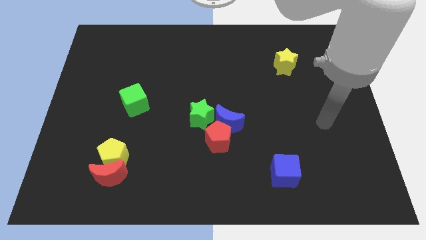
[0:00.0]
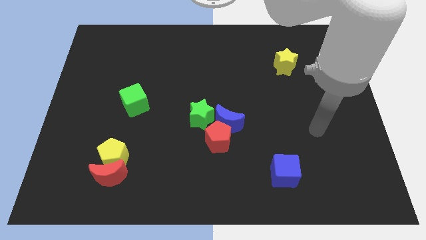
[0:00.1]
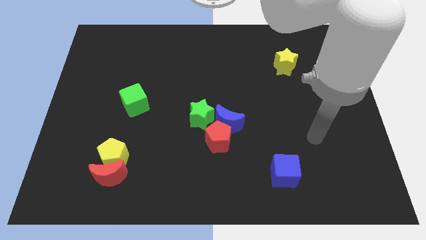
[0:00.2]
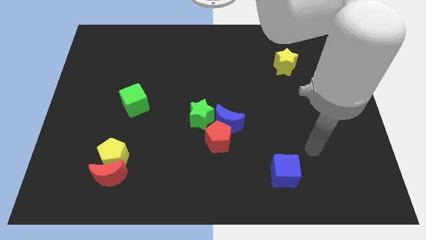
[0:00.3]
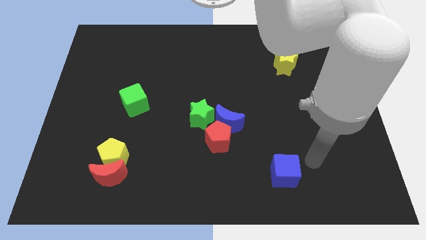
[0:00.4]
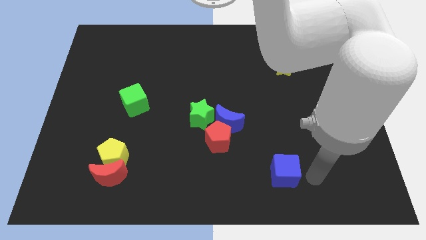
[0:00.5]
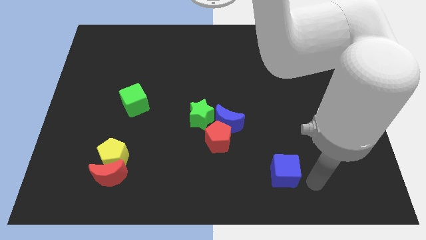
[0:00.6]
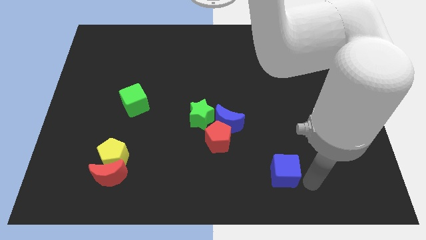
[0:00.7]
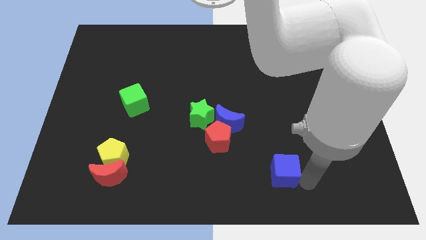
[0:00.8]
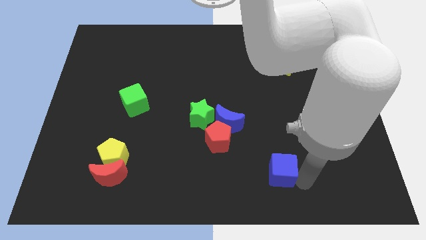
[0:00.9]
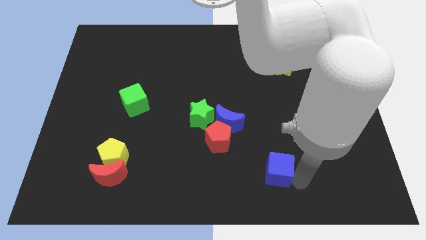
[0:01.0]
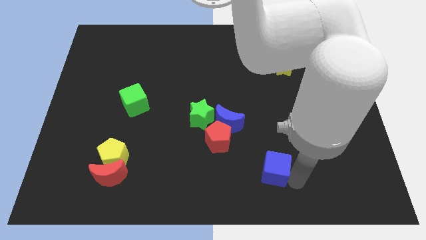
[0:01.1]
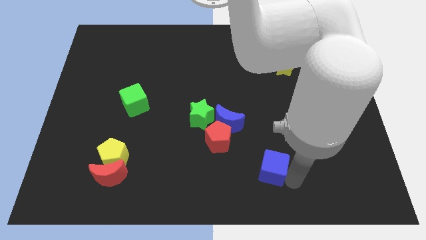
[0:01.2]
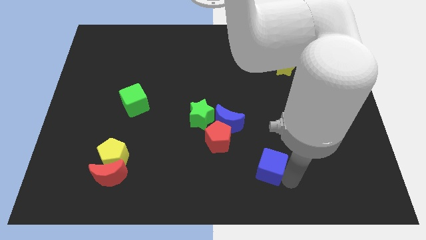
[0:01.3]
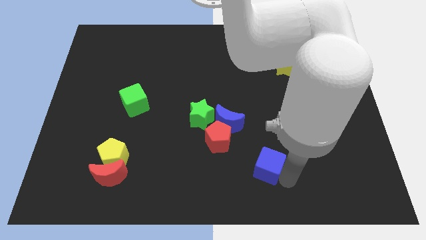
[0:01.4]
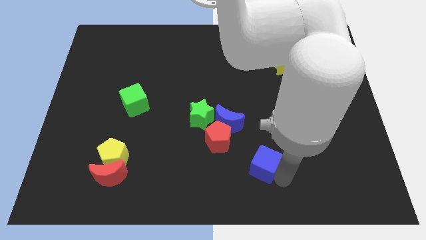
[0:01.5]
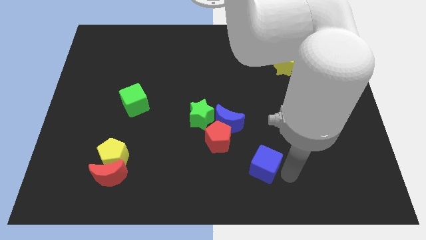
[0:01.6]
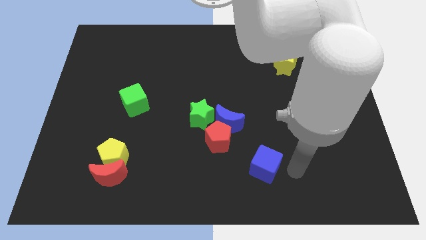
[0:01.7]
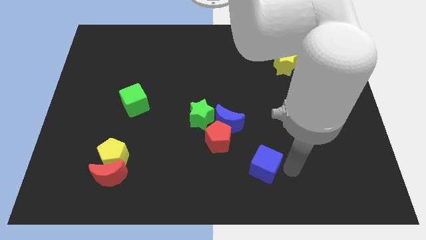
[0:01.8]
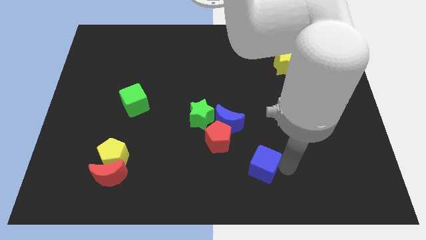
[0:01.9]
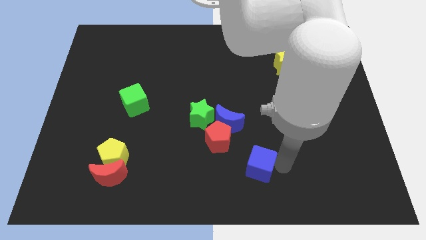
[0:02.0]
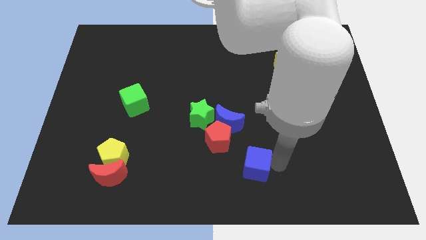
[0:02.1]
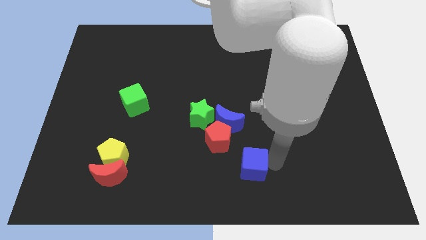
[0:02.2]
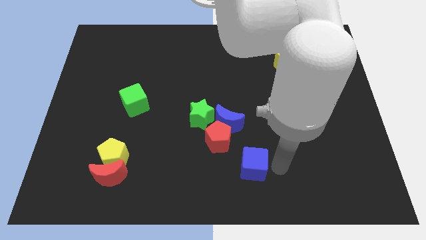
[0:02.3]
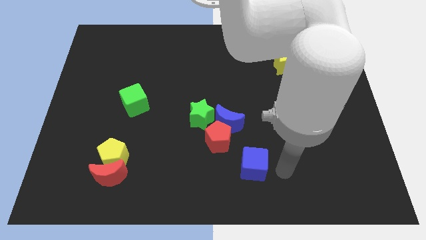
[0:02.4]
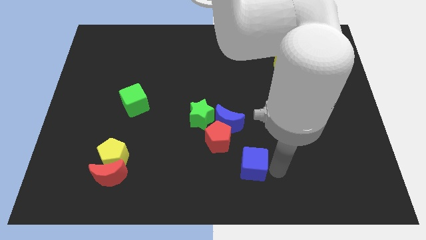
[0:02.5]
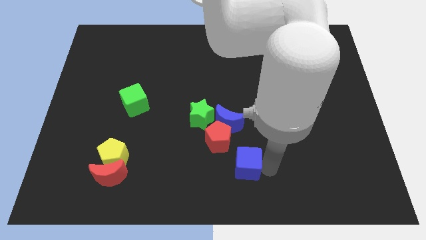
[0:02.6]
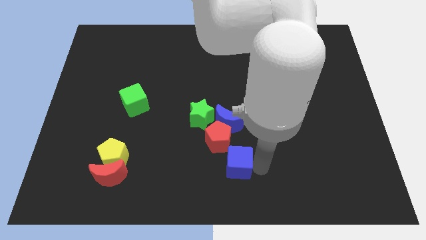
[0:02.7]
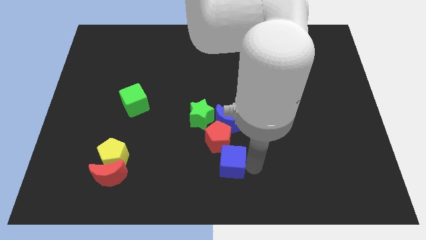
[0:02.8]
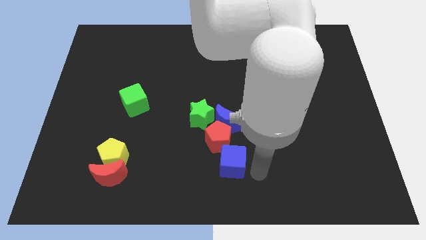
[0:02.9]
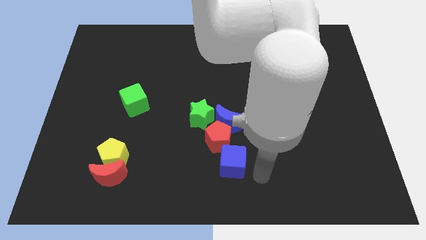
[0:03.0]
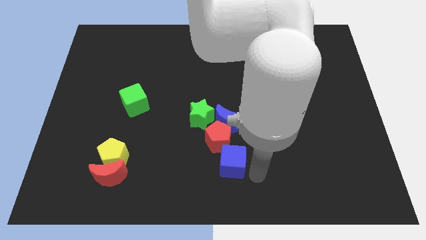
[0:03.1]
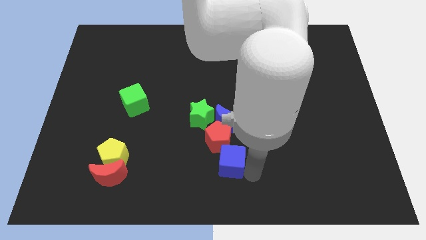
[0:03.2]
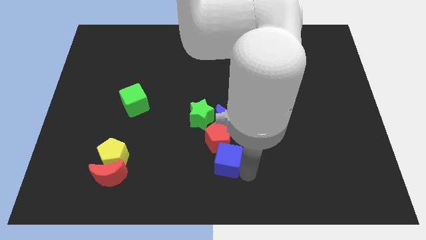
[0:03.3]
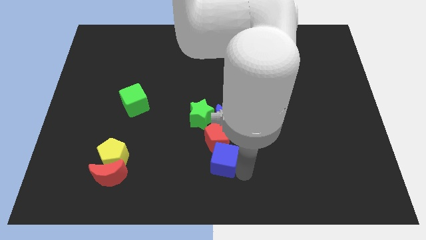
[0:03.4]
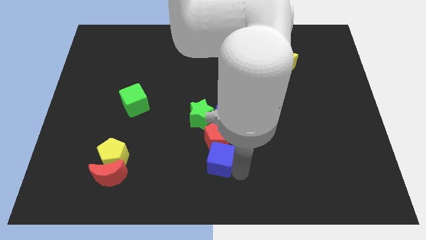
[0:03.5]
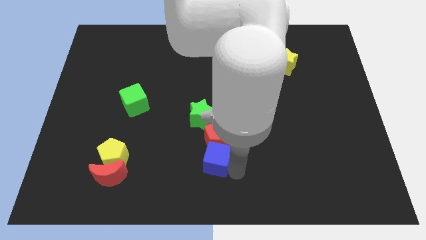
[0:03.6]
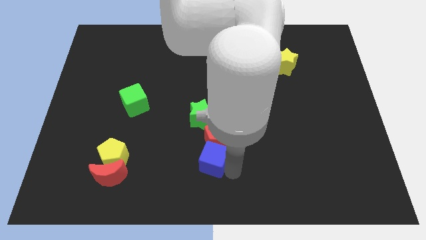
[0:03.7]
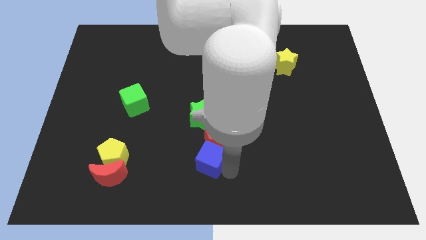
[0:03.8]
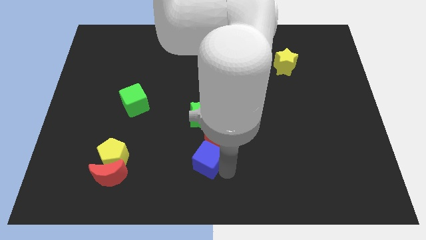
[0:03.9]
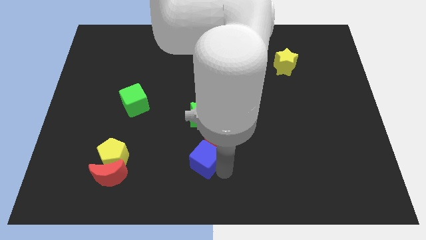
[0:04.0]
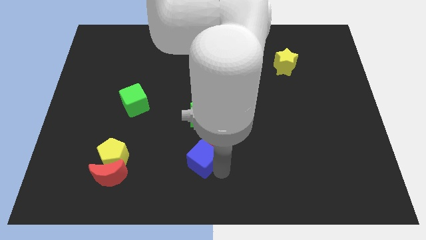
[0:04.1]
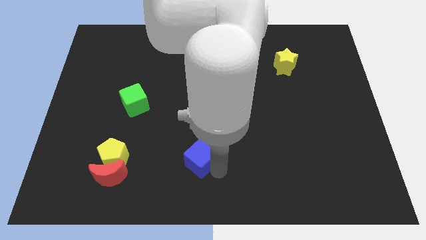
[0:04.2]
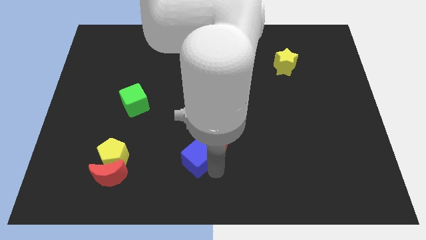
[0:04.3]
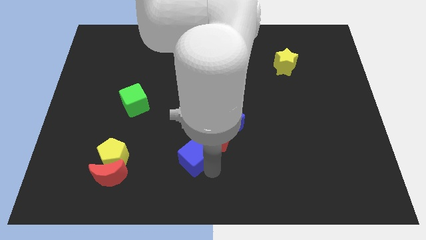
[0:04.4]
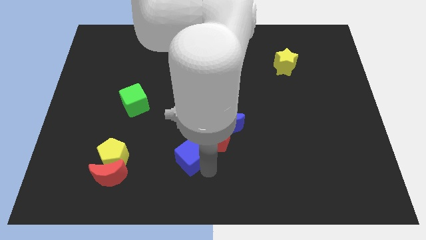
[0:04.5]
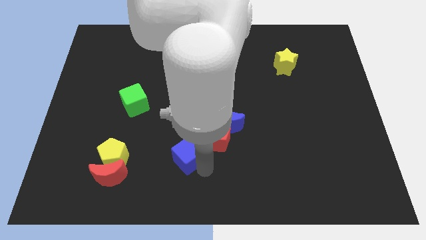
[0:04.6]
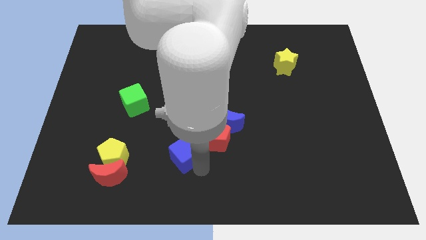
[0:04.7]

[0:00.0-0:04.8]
move the blue cube diagonally down and to the left of the green star

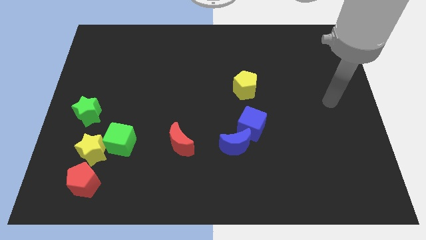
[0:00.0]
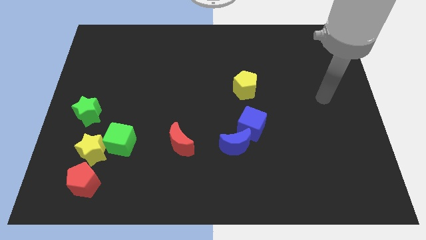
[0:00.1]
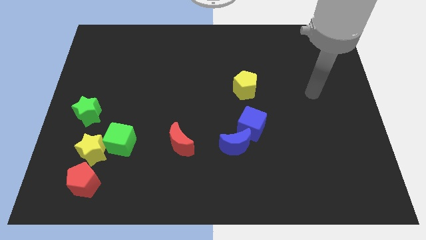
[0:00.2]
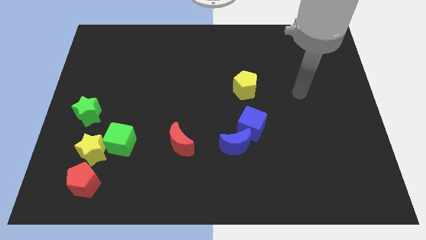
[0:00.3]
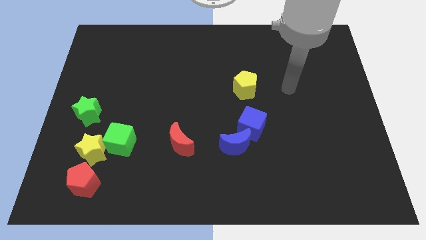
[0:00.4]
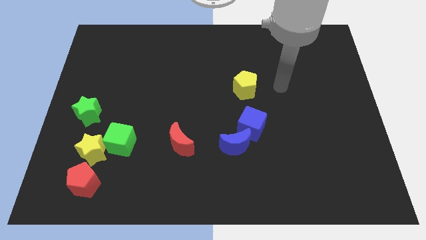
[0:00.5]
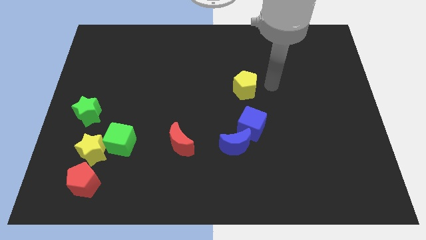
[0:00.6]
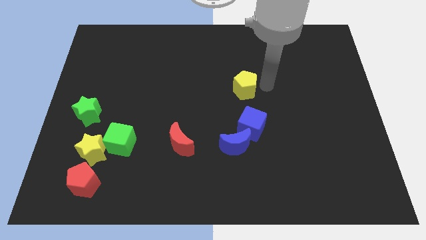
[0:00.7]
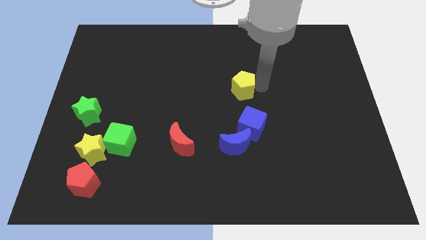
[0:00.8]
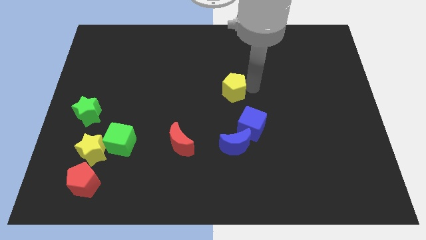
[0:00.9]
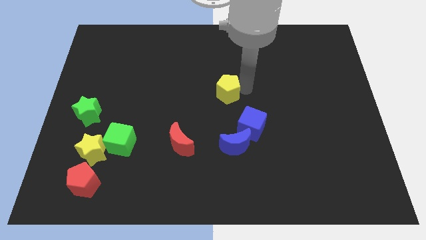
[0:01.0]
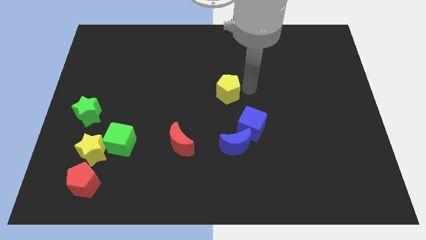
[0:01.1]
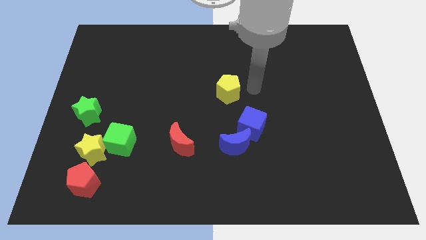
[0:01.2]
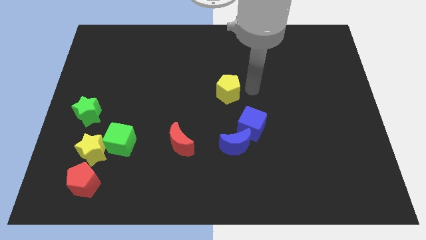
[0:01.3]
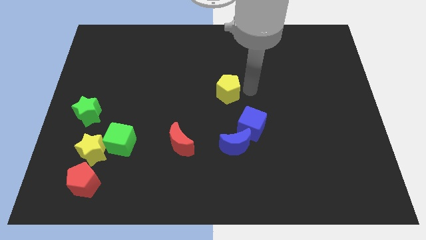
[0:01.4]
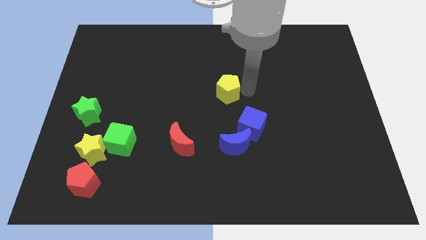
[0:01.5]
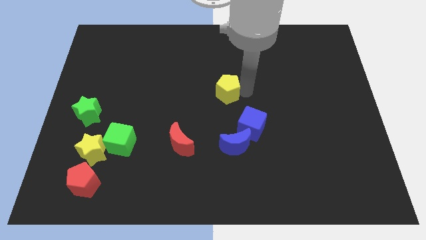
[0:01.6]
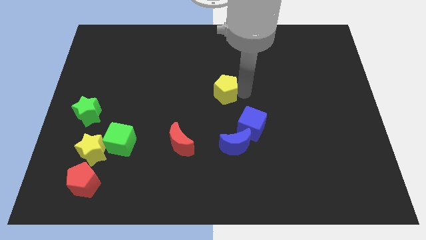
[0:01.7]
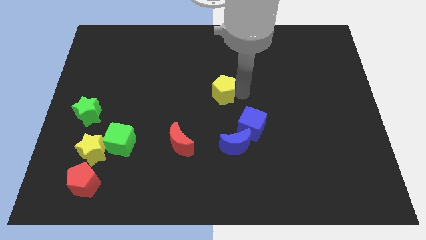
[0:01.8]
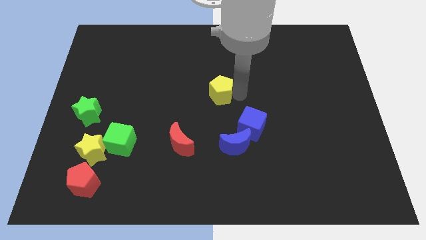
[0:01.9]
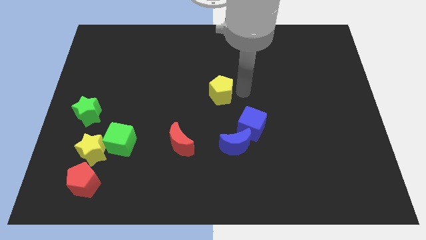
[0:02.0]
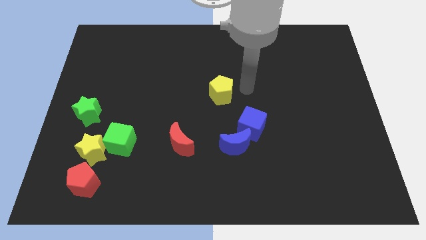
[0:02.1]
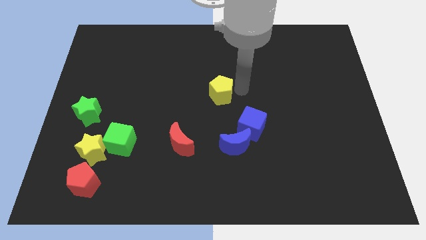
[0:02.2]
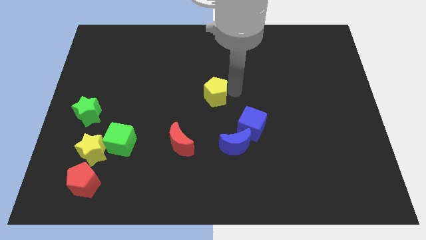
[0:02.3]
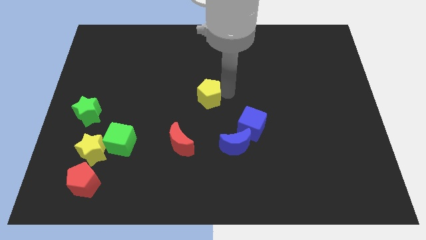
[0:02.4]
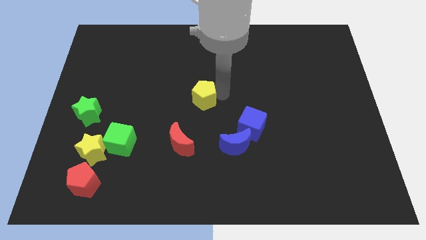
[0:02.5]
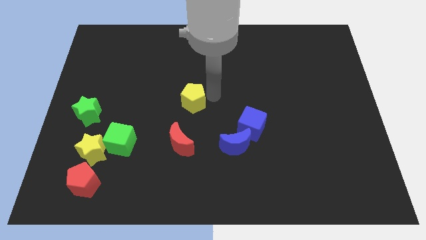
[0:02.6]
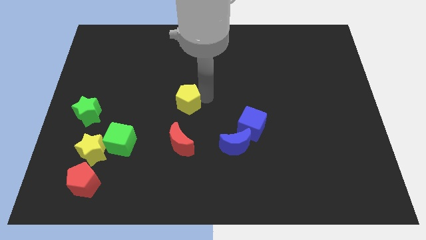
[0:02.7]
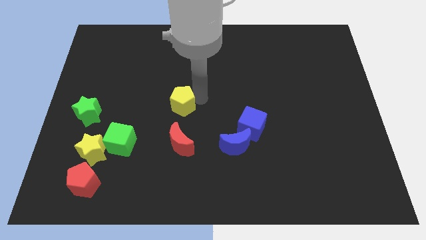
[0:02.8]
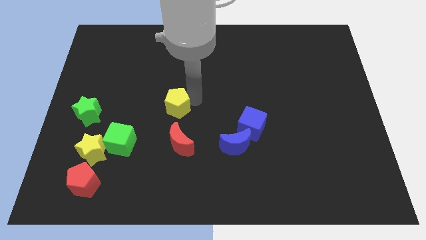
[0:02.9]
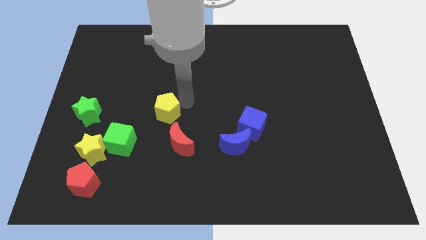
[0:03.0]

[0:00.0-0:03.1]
push the yellow pentagon to the top right side of the green cube
